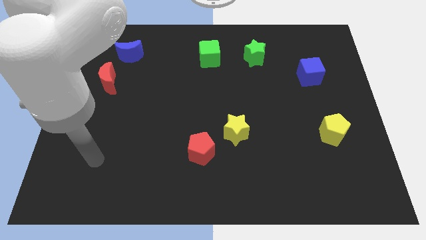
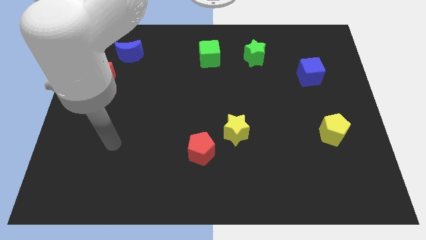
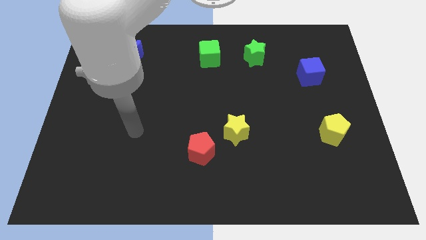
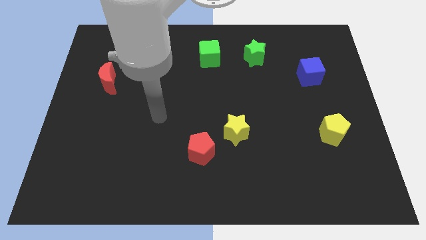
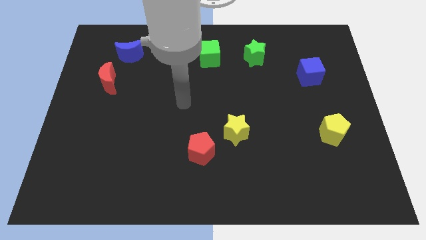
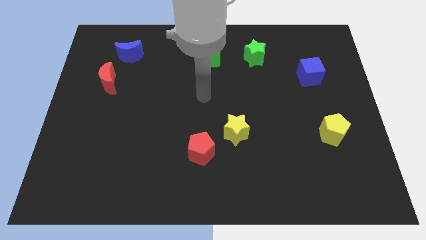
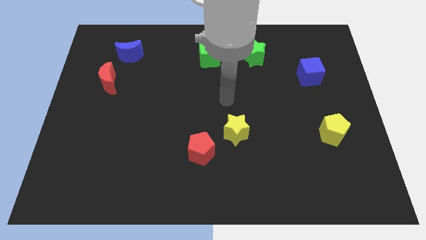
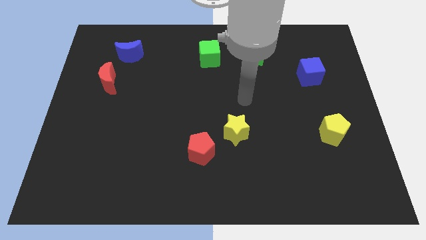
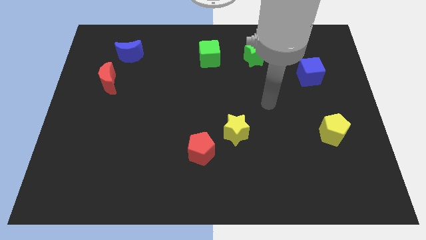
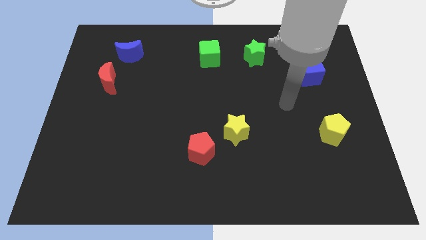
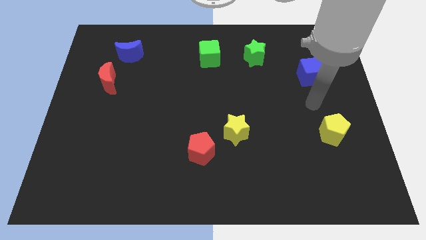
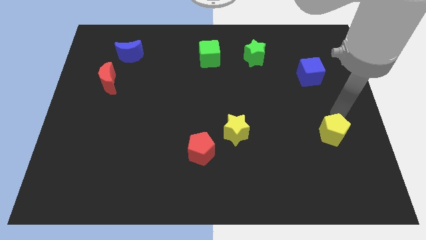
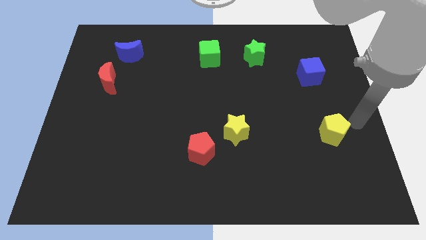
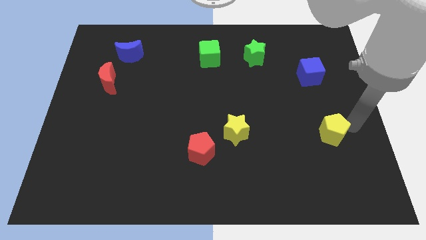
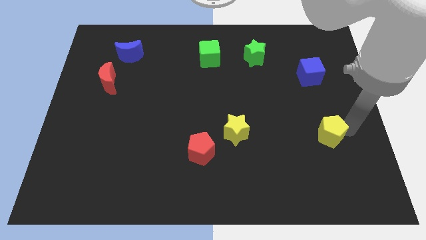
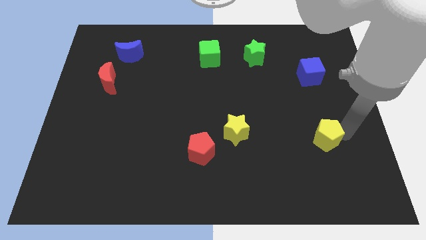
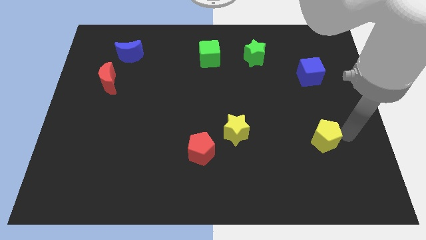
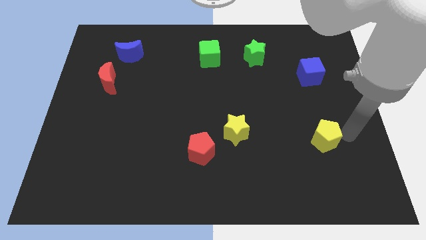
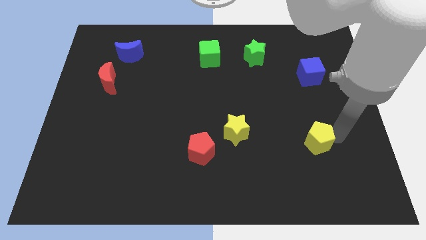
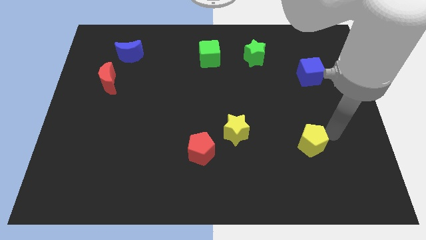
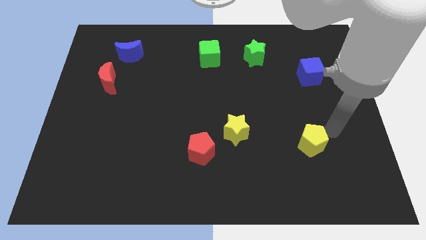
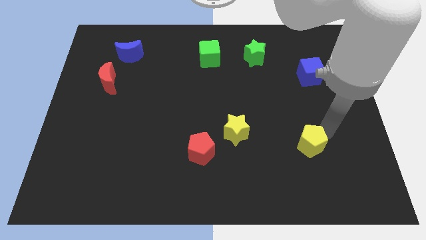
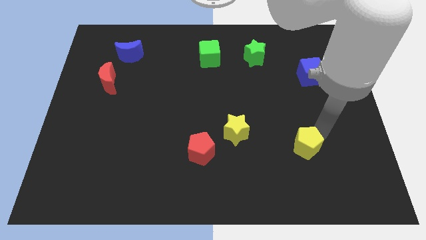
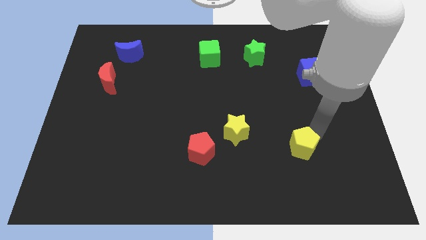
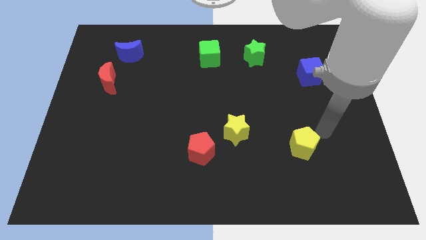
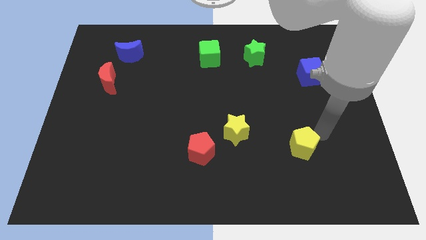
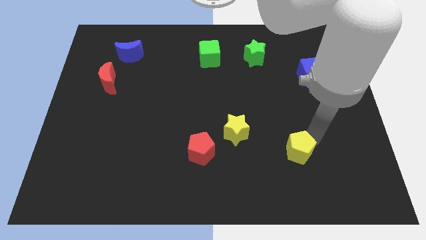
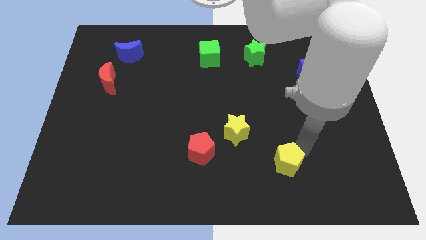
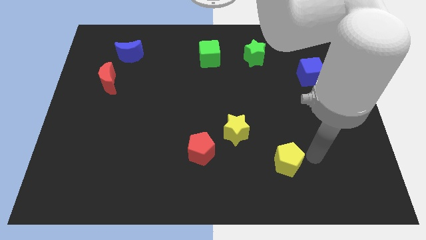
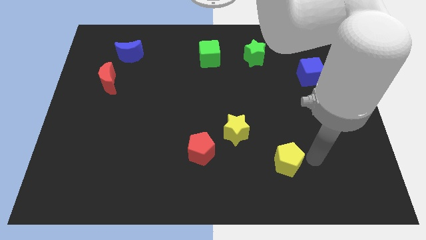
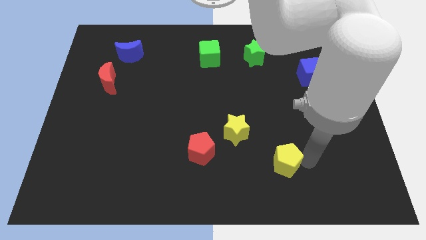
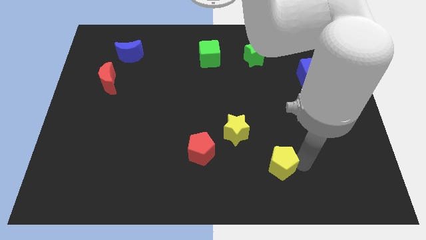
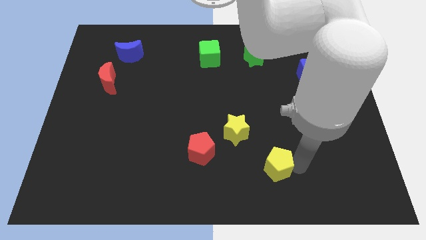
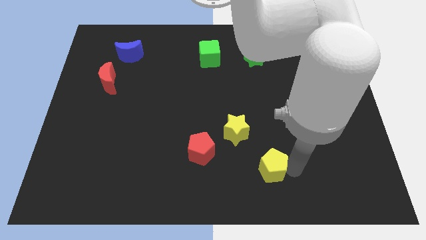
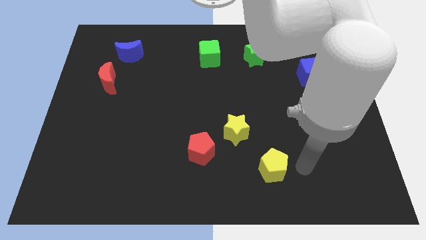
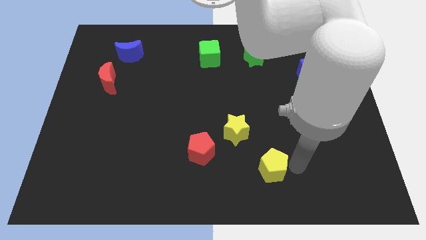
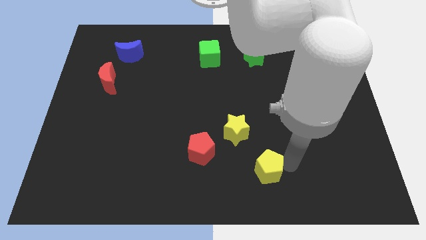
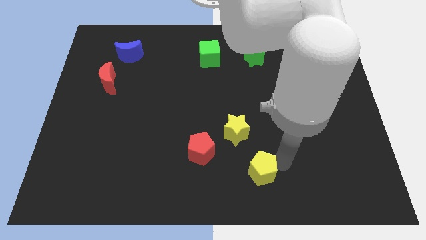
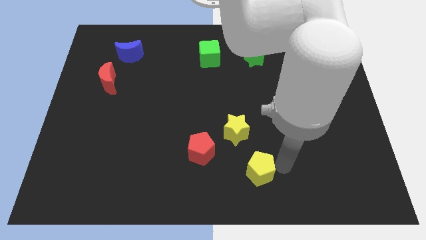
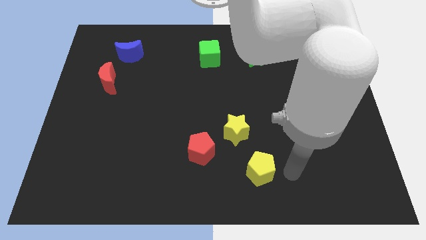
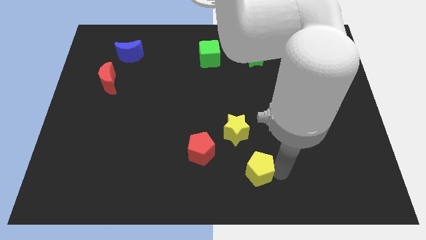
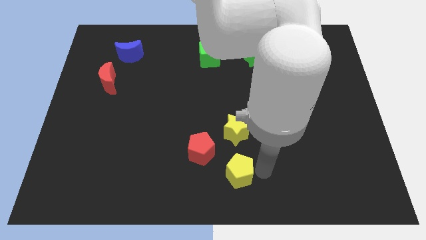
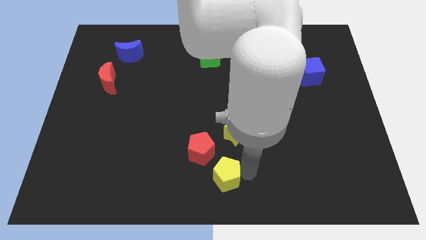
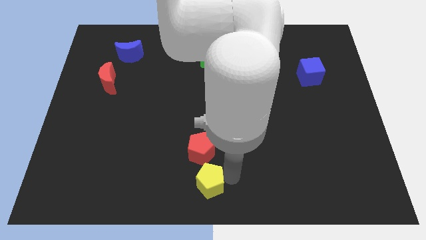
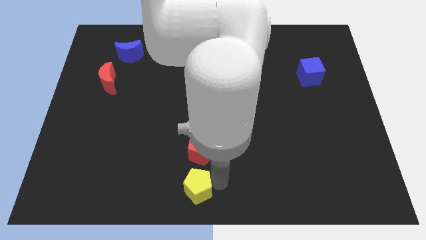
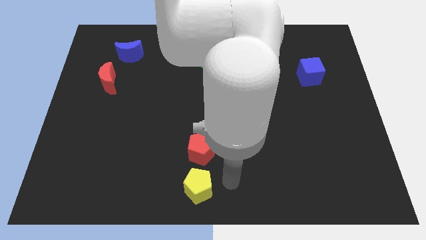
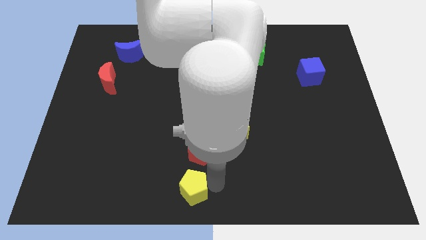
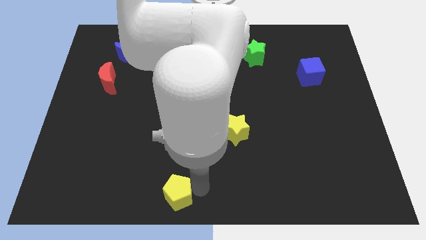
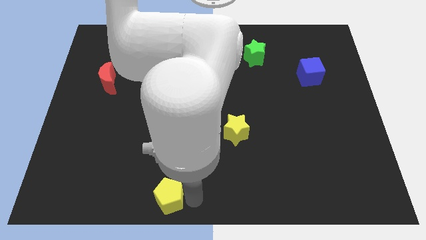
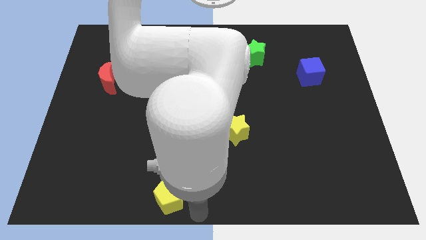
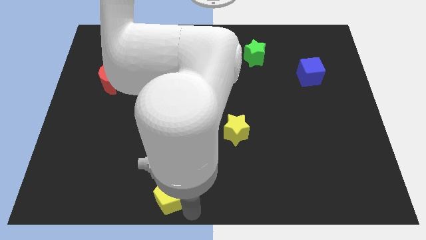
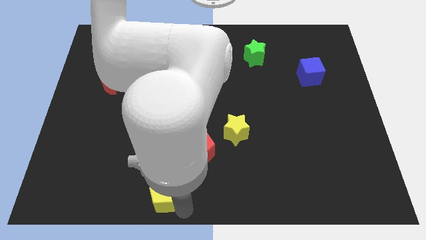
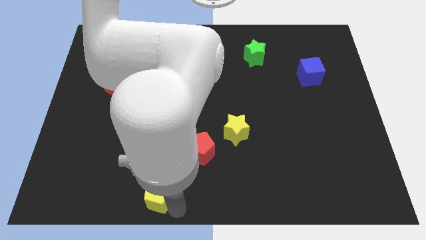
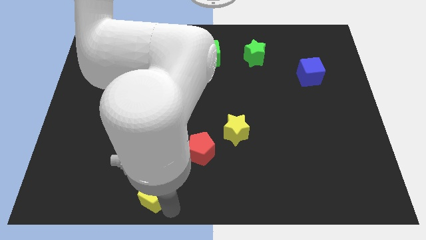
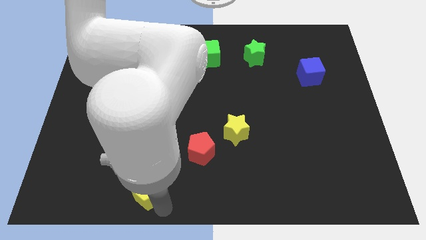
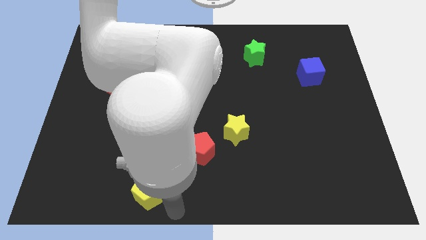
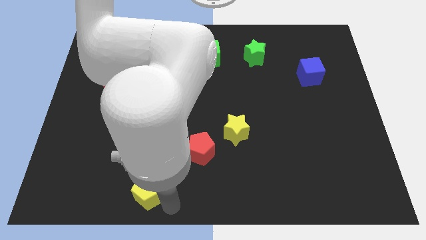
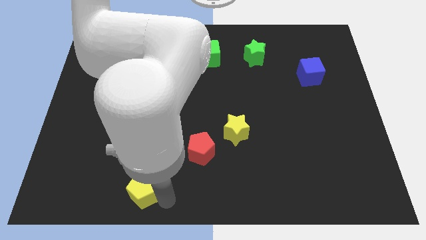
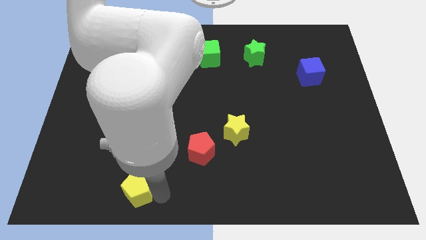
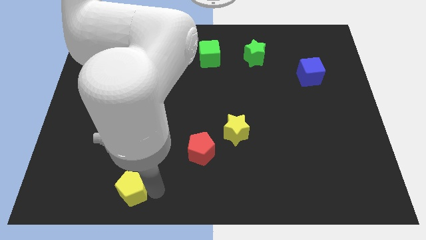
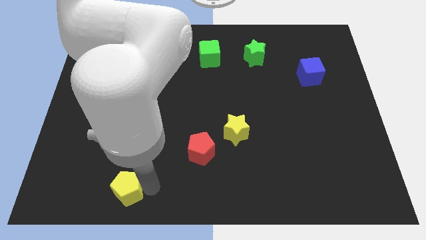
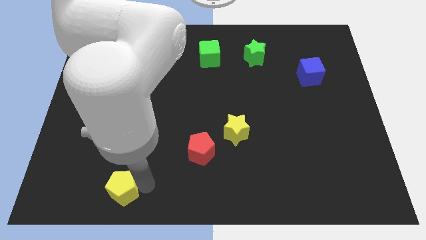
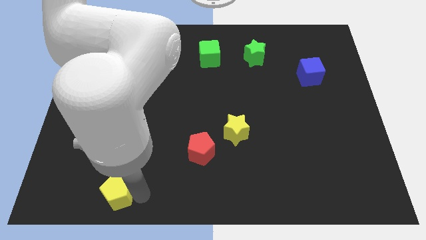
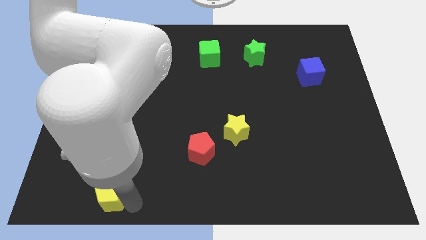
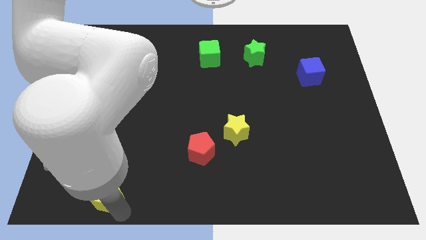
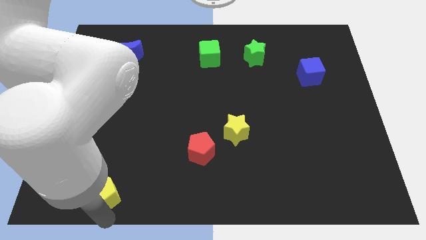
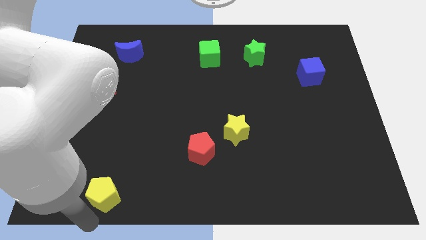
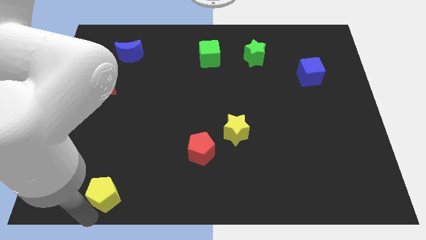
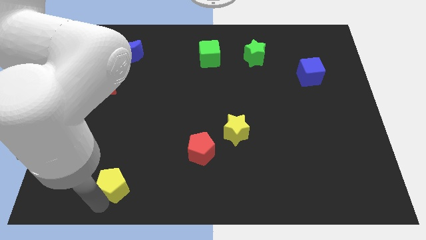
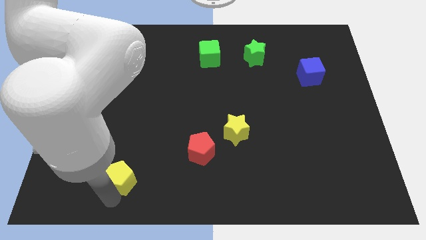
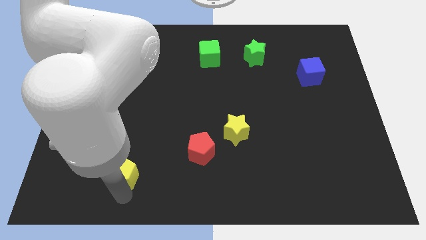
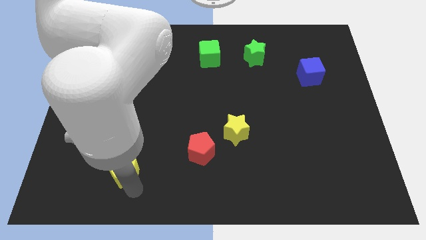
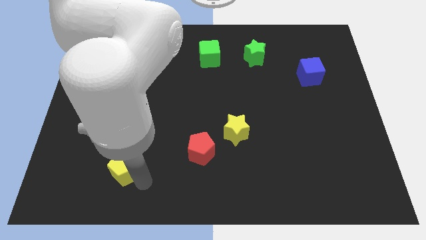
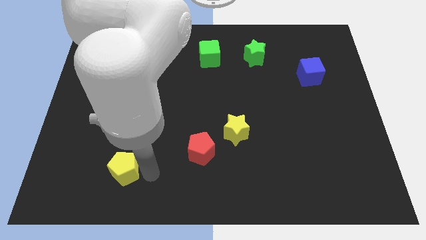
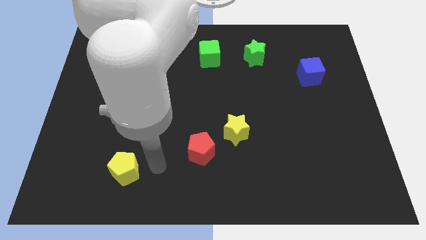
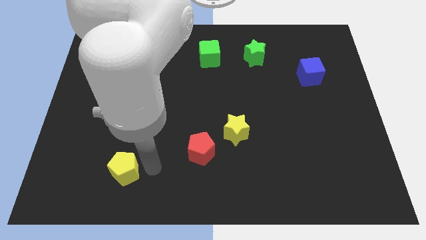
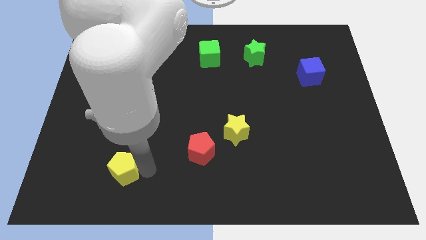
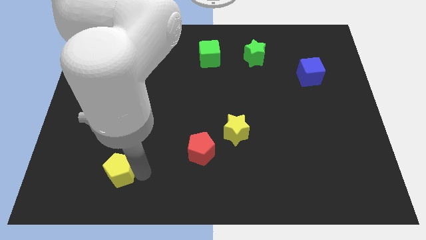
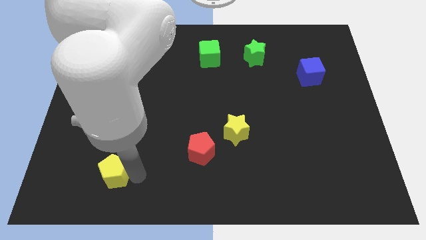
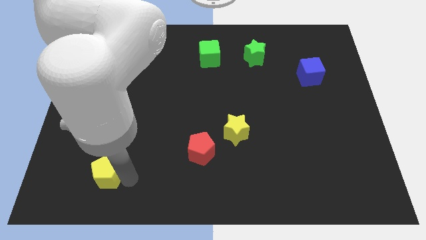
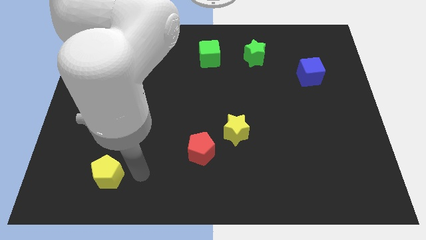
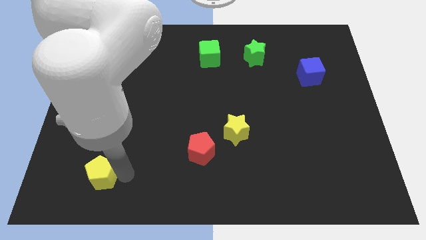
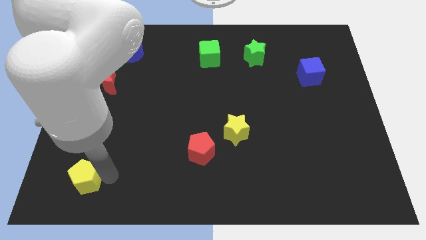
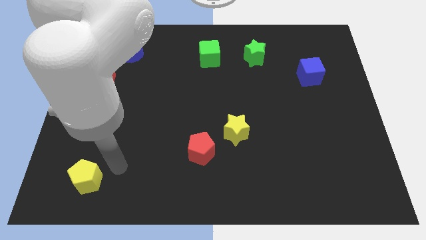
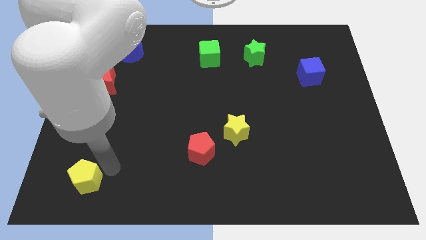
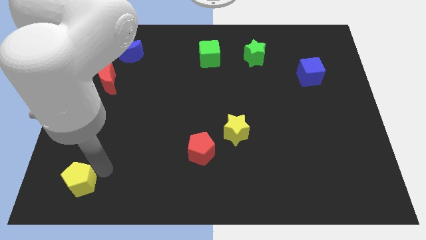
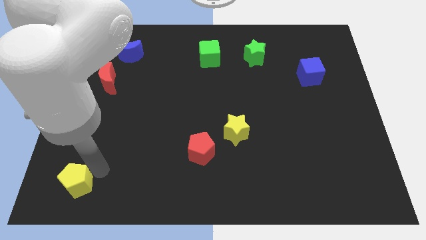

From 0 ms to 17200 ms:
slide the yellow pentagon to the bottom left corner
